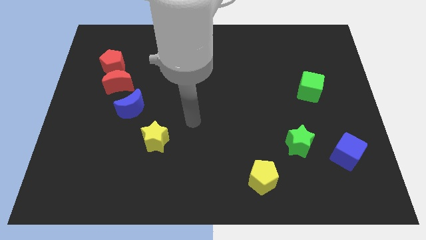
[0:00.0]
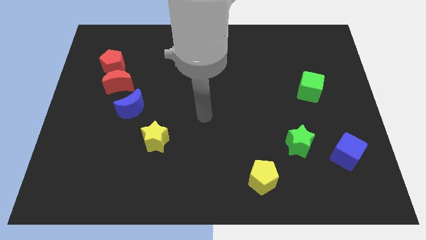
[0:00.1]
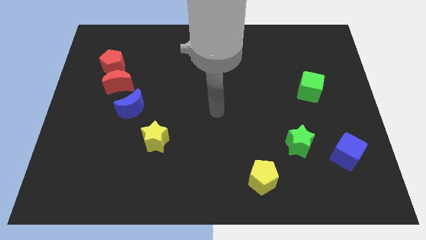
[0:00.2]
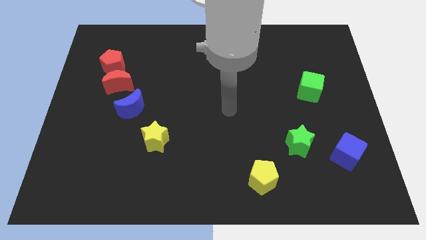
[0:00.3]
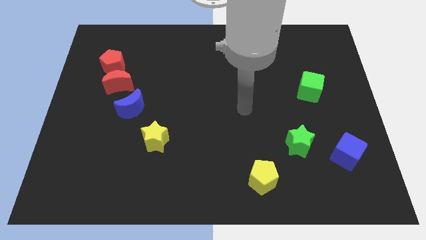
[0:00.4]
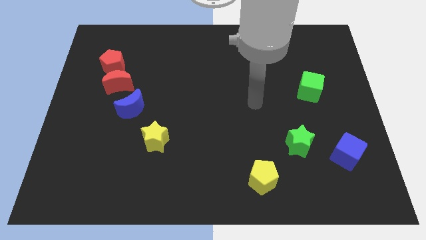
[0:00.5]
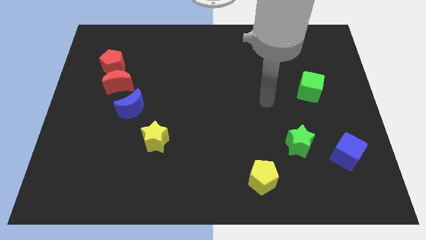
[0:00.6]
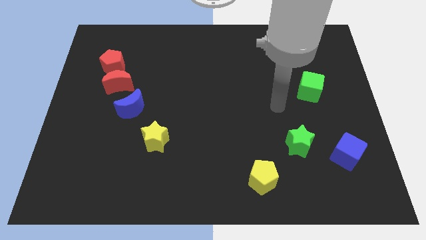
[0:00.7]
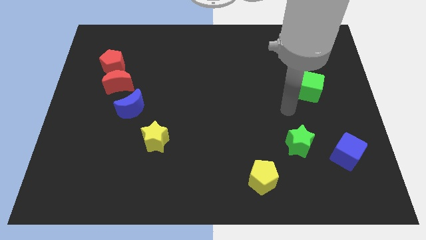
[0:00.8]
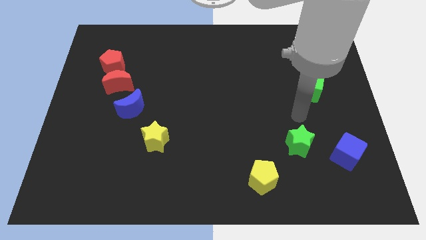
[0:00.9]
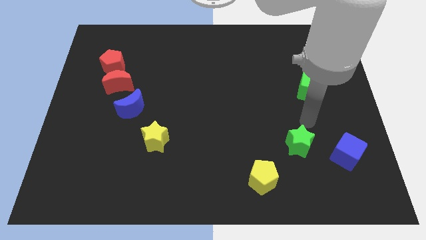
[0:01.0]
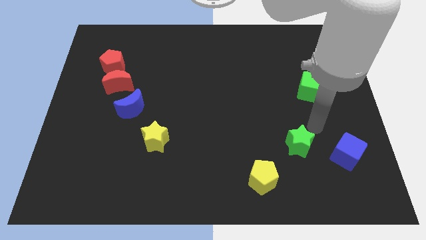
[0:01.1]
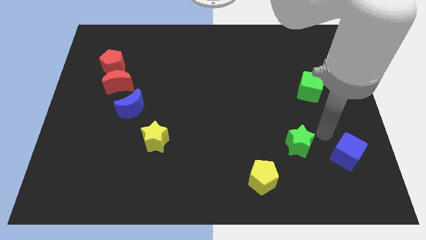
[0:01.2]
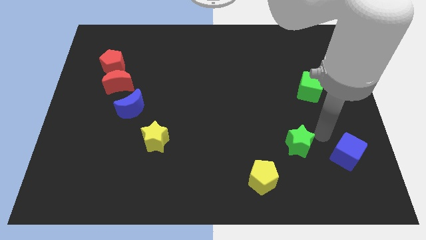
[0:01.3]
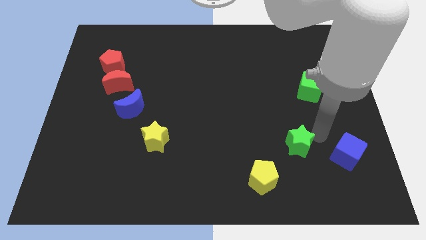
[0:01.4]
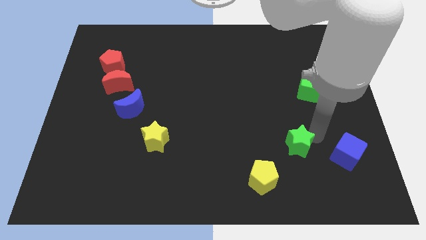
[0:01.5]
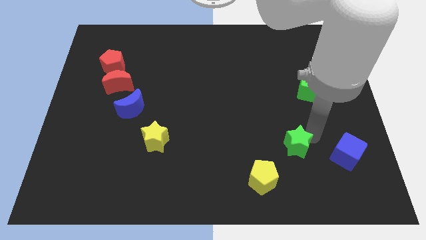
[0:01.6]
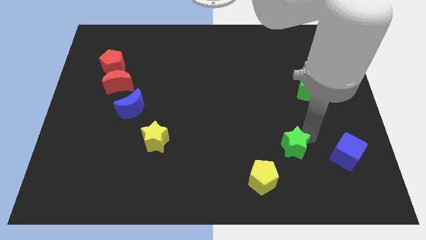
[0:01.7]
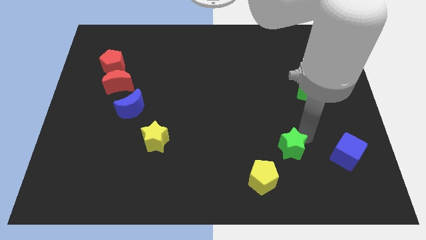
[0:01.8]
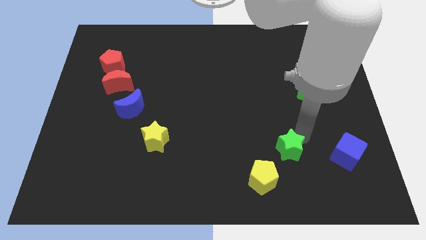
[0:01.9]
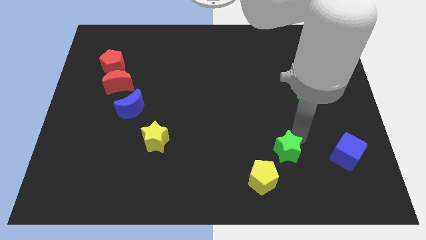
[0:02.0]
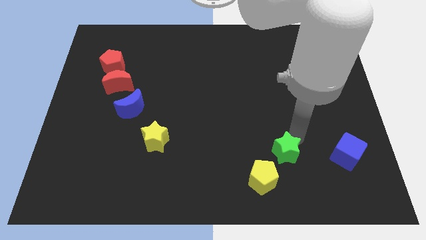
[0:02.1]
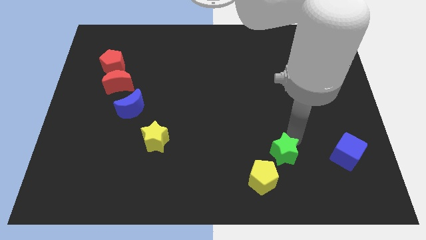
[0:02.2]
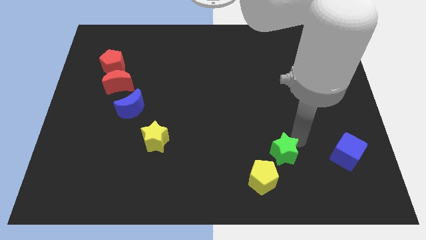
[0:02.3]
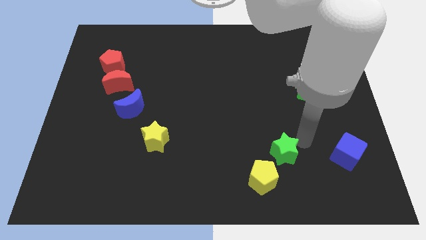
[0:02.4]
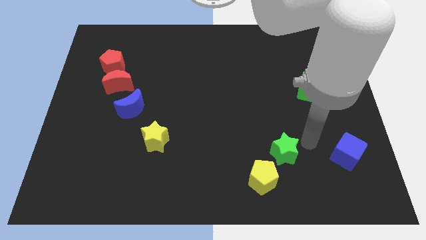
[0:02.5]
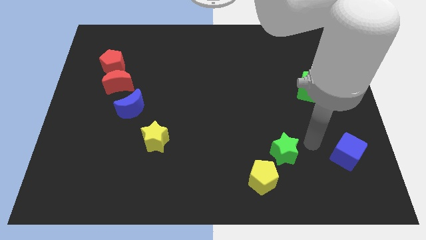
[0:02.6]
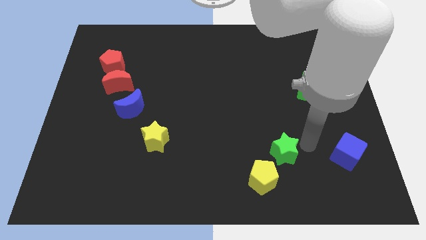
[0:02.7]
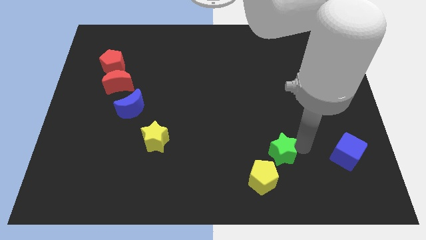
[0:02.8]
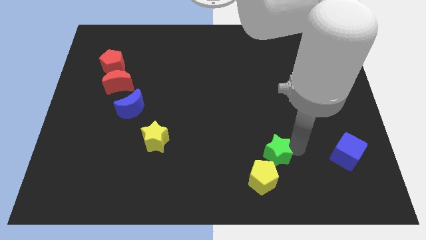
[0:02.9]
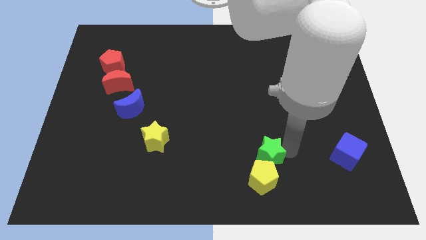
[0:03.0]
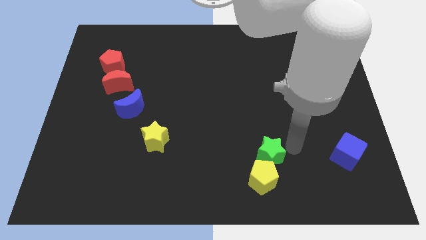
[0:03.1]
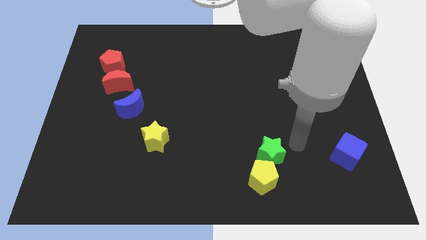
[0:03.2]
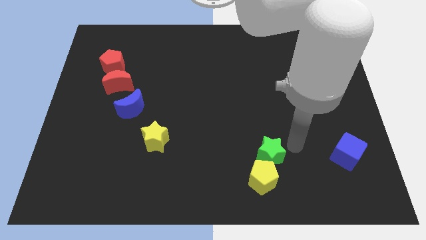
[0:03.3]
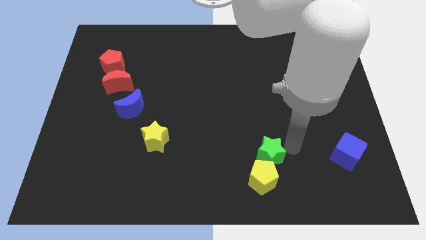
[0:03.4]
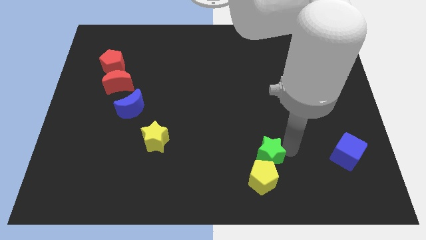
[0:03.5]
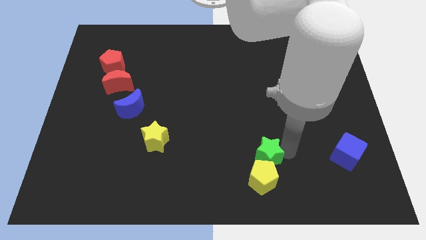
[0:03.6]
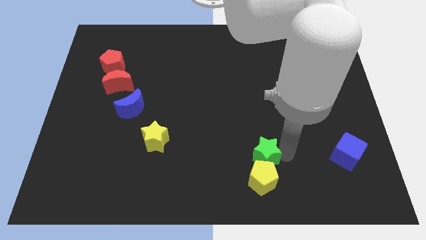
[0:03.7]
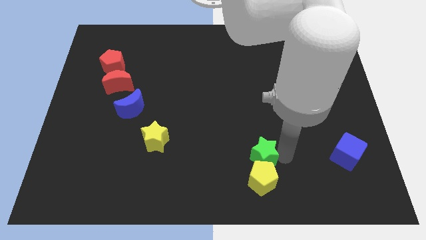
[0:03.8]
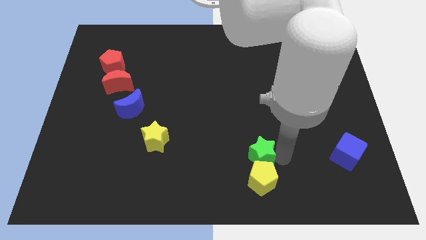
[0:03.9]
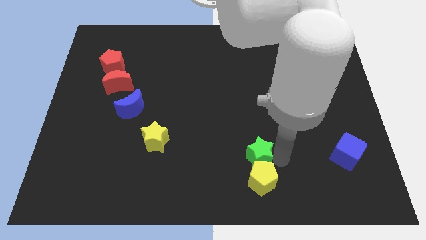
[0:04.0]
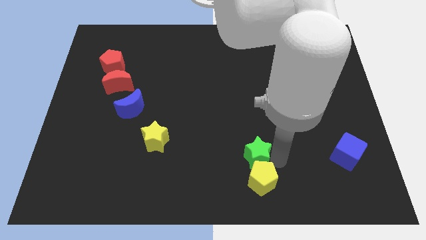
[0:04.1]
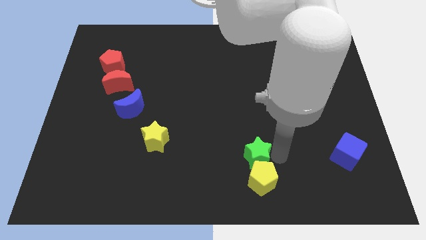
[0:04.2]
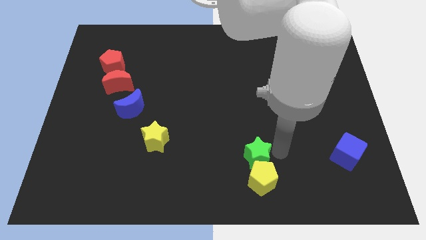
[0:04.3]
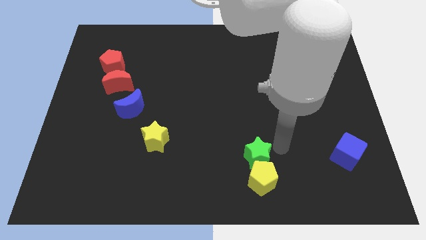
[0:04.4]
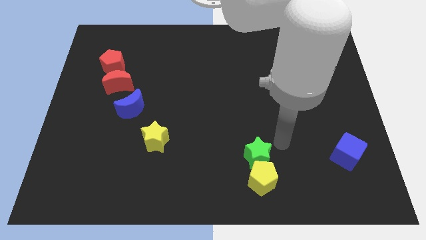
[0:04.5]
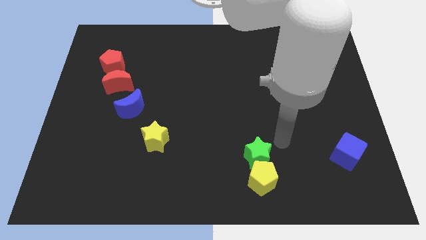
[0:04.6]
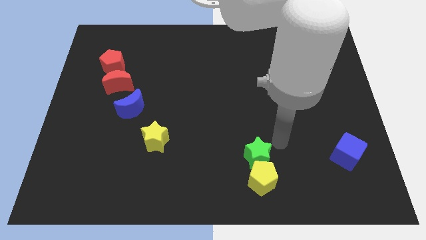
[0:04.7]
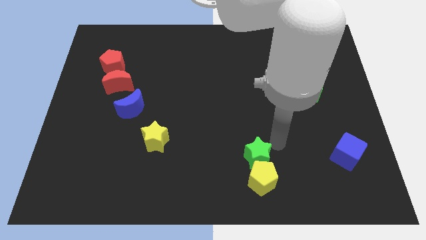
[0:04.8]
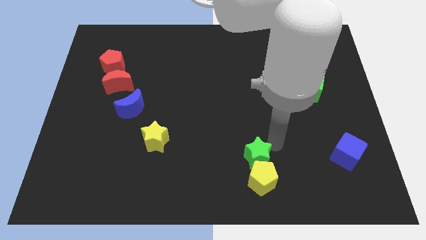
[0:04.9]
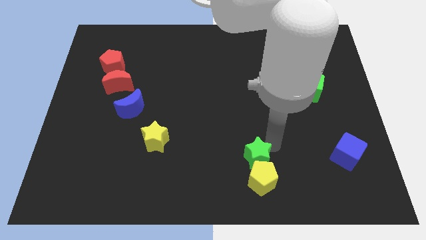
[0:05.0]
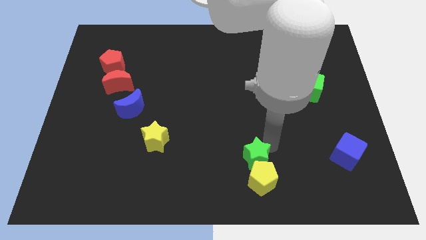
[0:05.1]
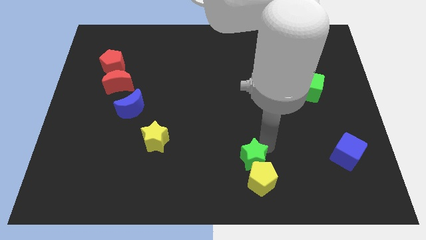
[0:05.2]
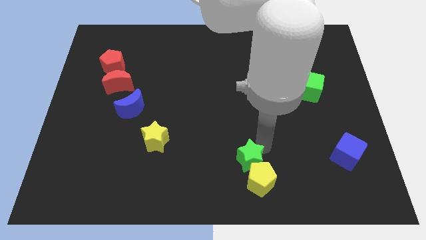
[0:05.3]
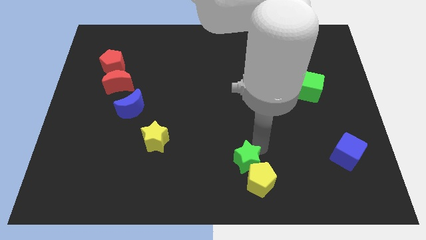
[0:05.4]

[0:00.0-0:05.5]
move the green star to the bottom
